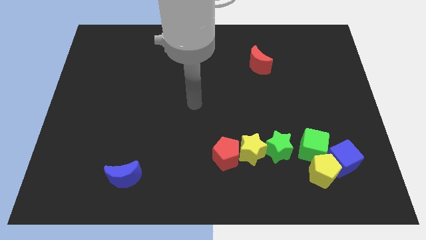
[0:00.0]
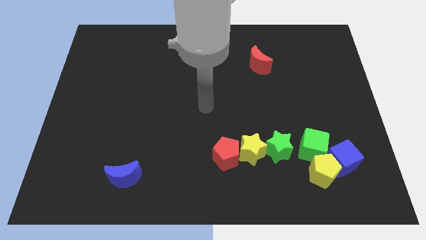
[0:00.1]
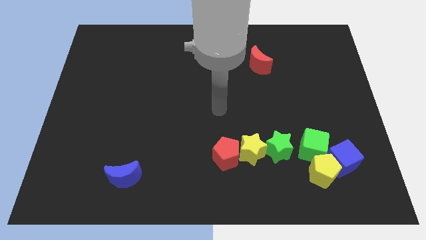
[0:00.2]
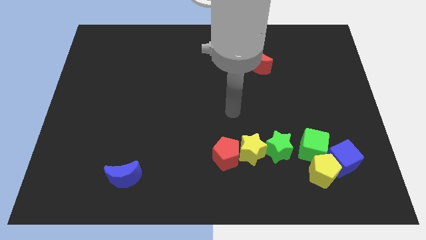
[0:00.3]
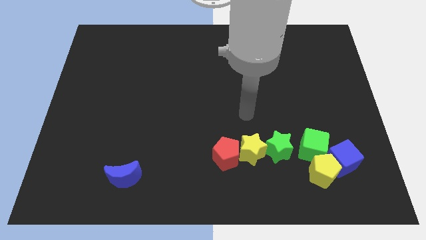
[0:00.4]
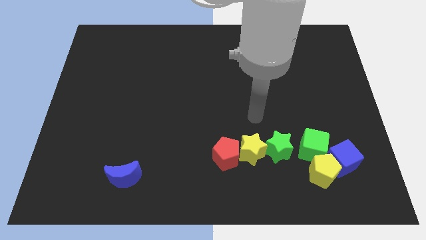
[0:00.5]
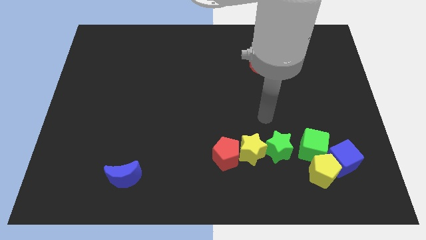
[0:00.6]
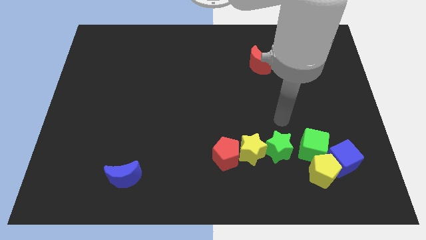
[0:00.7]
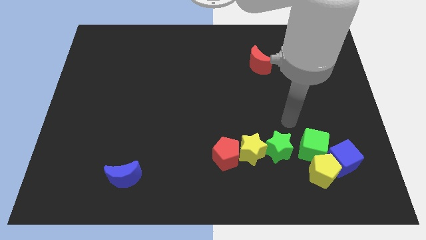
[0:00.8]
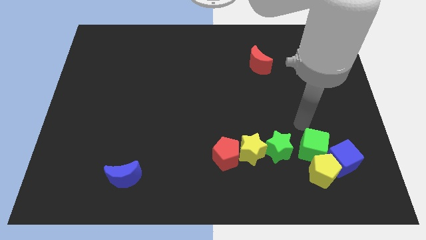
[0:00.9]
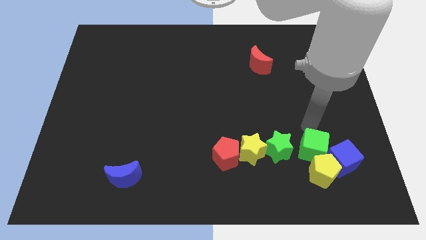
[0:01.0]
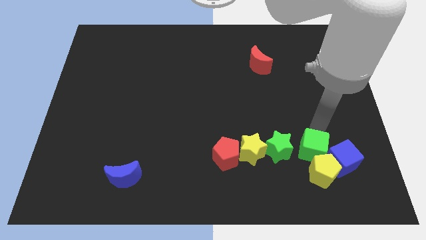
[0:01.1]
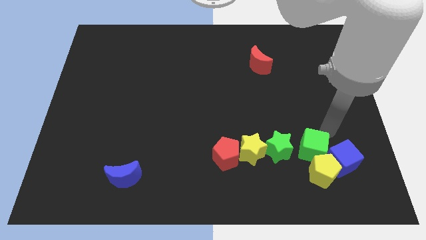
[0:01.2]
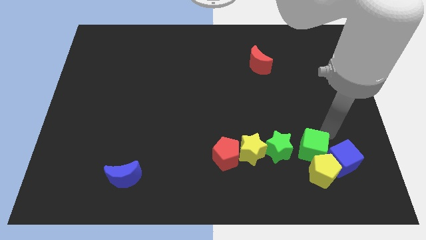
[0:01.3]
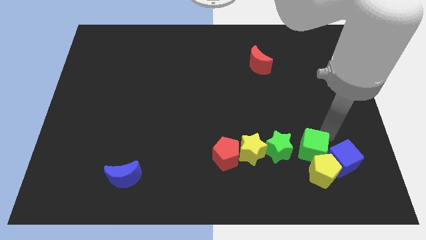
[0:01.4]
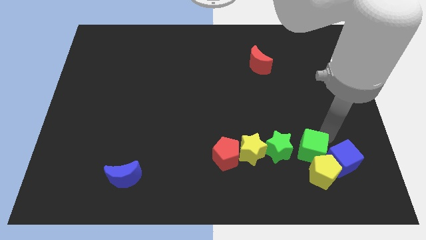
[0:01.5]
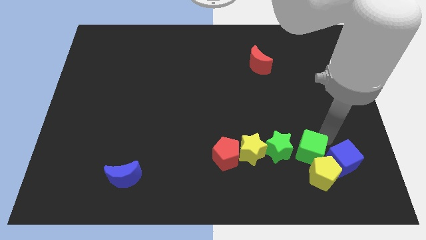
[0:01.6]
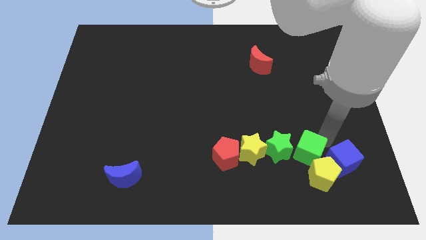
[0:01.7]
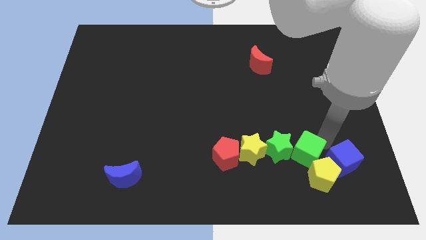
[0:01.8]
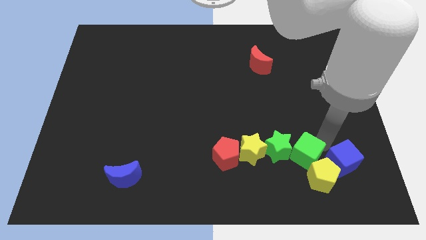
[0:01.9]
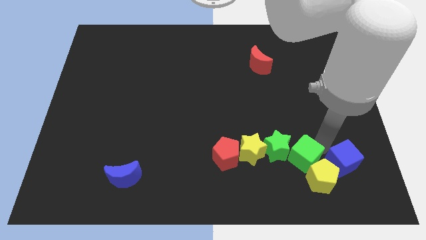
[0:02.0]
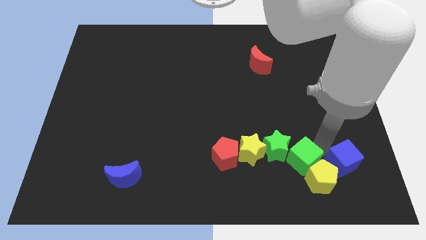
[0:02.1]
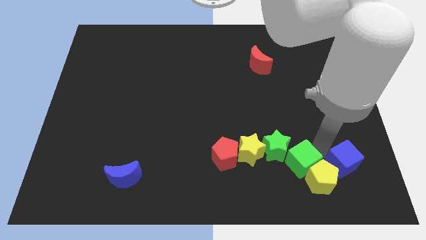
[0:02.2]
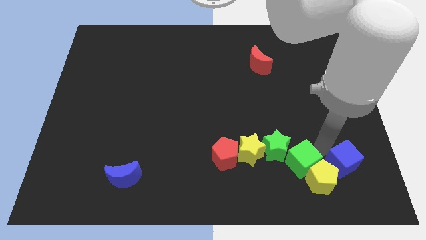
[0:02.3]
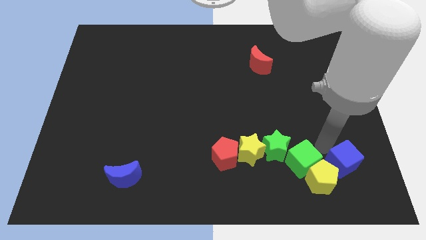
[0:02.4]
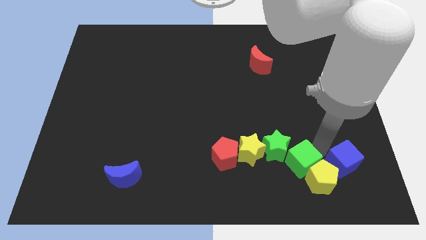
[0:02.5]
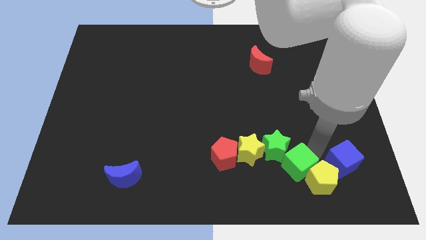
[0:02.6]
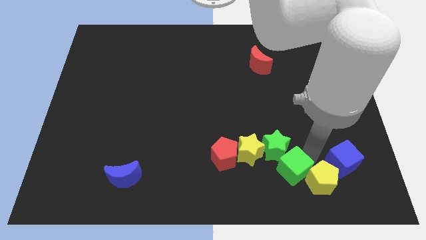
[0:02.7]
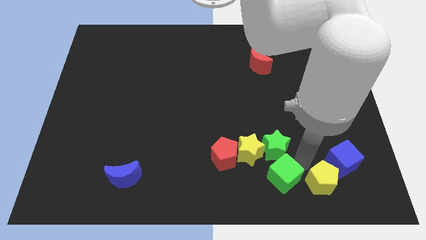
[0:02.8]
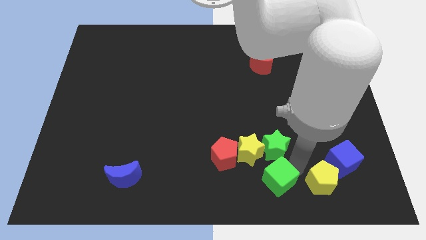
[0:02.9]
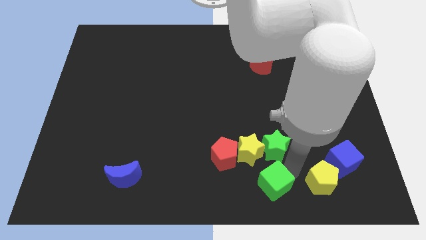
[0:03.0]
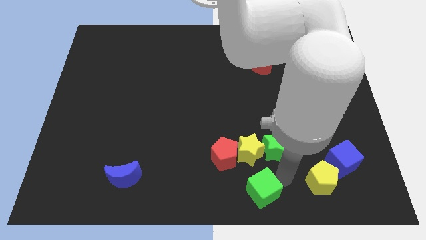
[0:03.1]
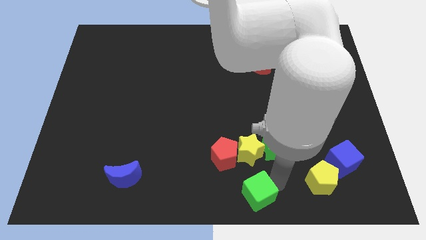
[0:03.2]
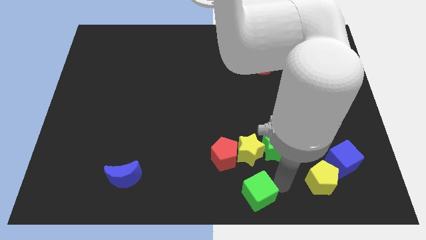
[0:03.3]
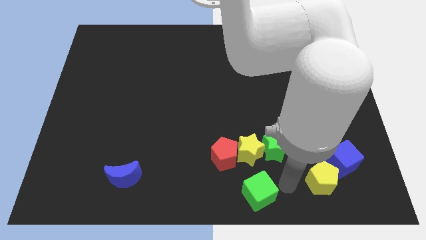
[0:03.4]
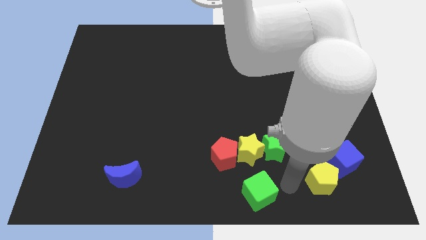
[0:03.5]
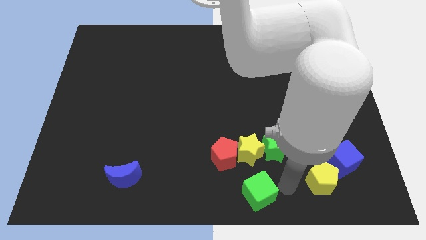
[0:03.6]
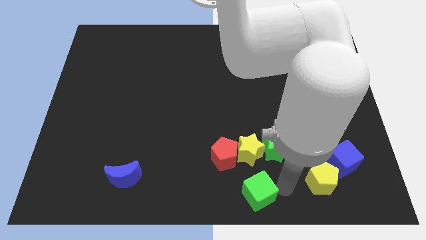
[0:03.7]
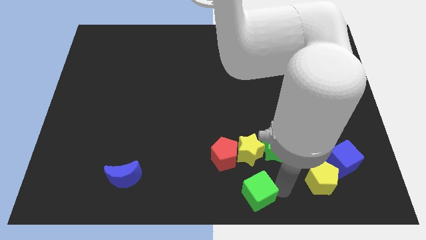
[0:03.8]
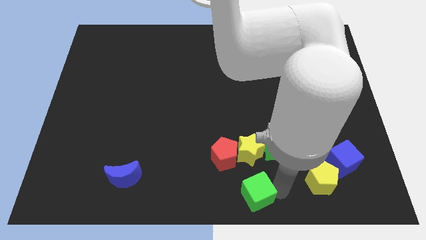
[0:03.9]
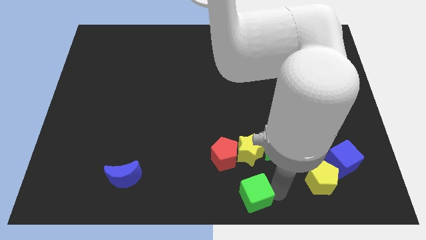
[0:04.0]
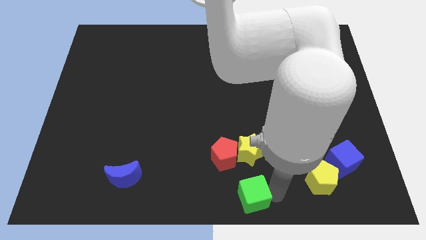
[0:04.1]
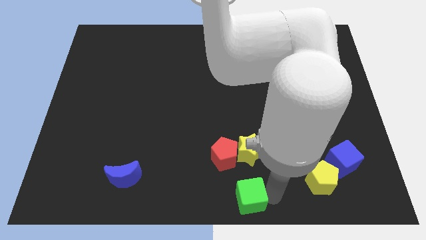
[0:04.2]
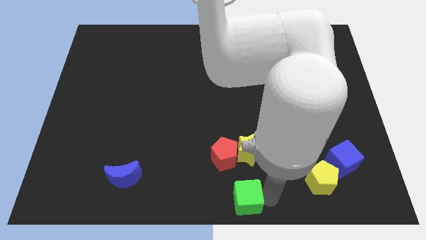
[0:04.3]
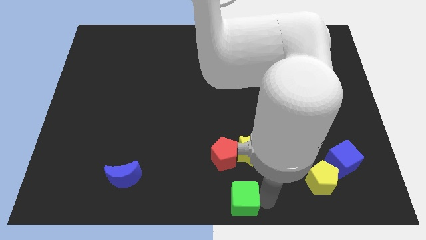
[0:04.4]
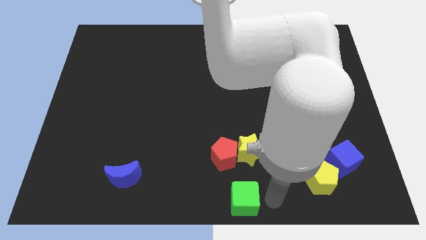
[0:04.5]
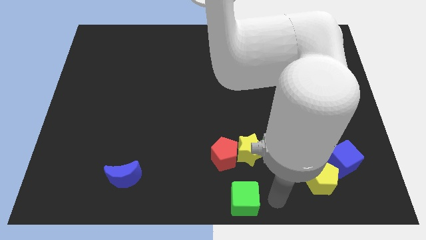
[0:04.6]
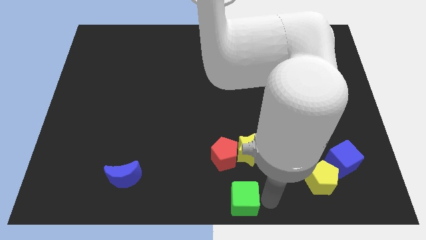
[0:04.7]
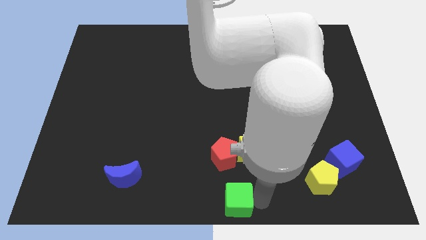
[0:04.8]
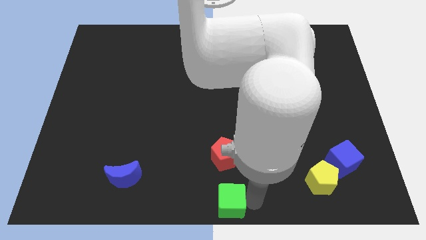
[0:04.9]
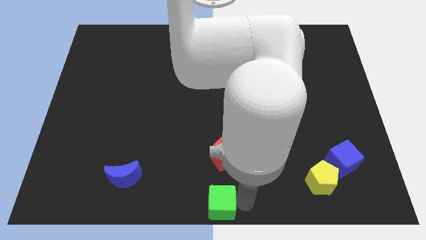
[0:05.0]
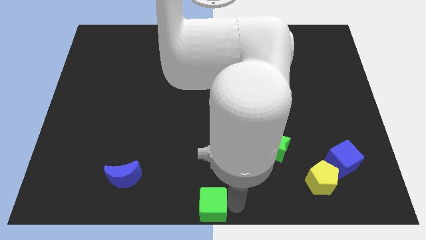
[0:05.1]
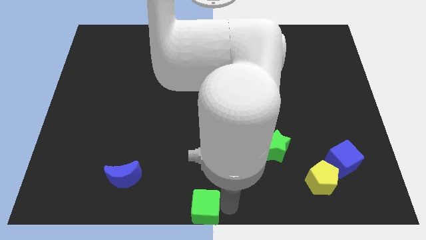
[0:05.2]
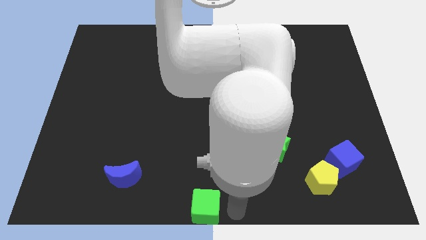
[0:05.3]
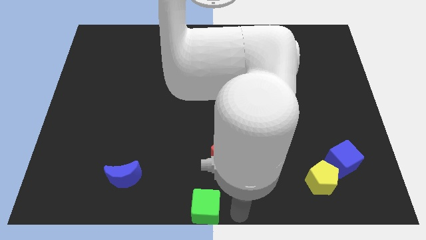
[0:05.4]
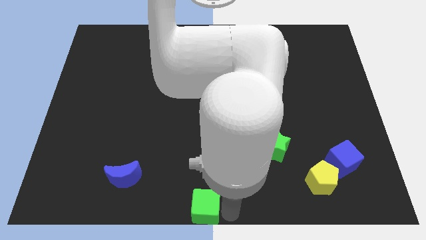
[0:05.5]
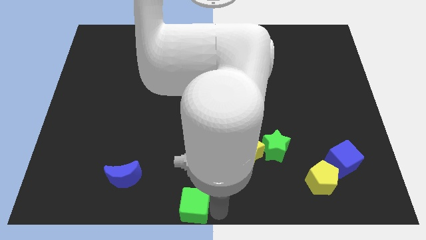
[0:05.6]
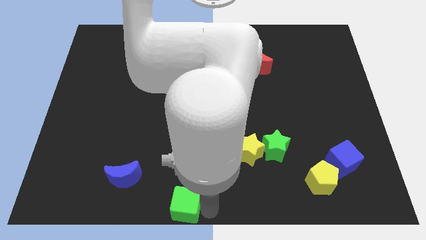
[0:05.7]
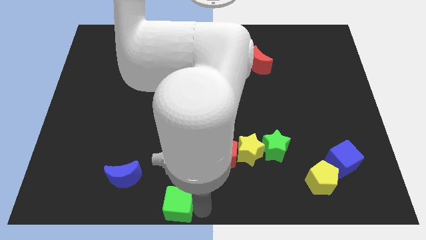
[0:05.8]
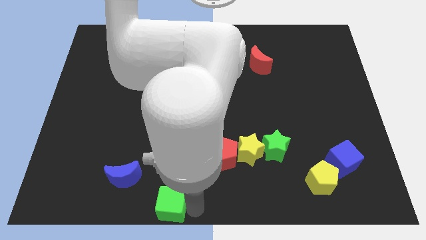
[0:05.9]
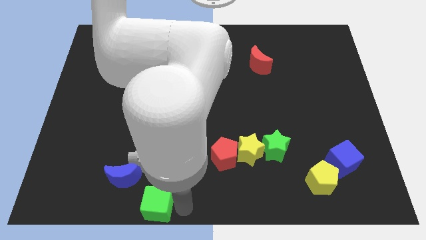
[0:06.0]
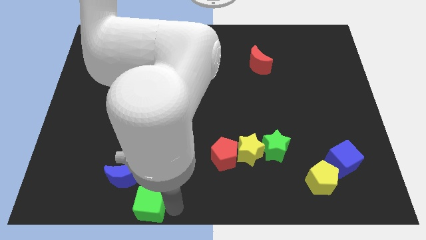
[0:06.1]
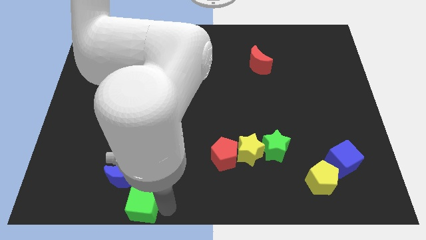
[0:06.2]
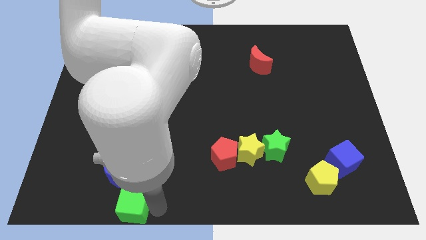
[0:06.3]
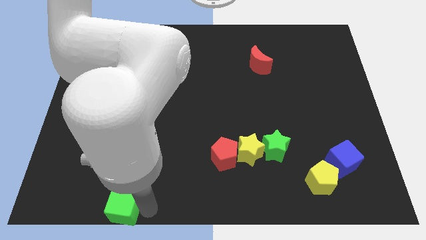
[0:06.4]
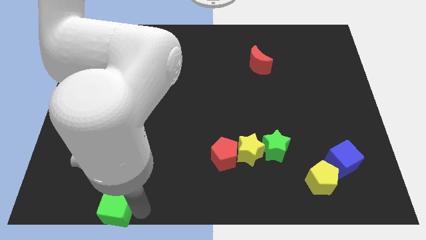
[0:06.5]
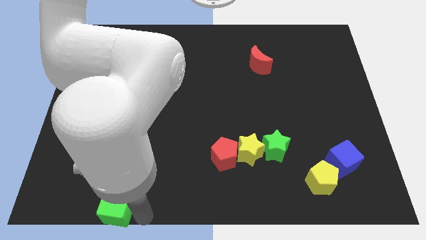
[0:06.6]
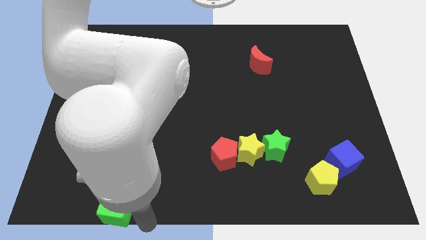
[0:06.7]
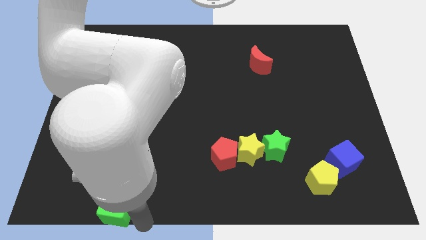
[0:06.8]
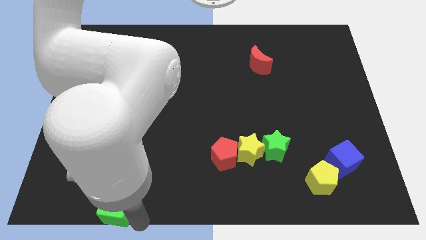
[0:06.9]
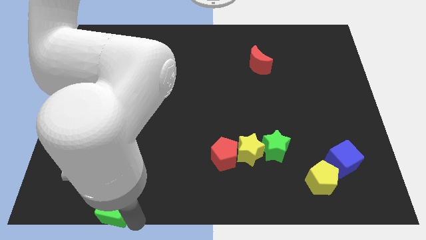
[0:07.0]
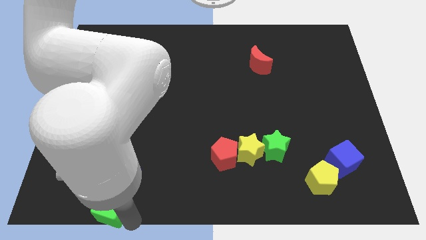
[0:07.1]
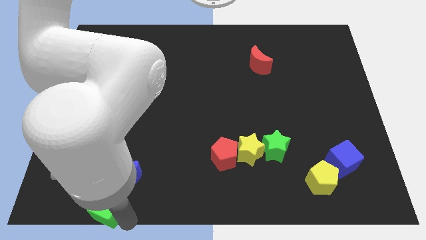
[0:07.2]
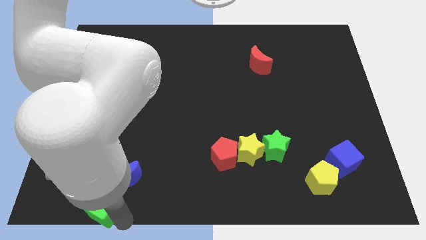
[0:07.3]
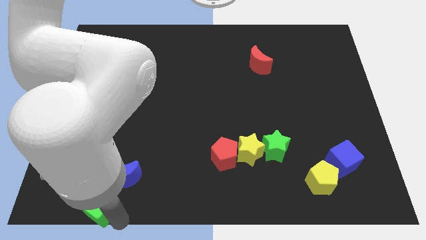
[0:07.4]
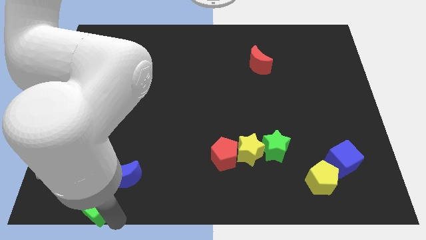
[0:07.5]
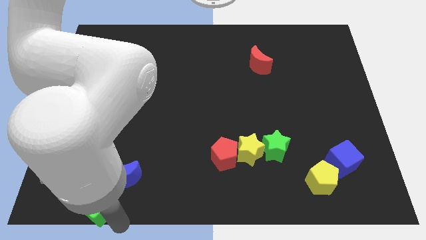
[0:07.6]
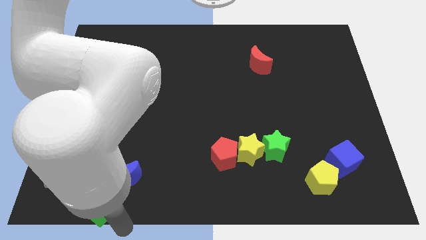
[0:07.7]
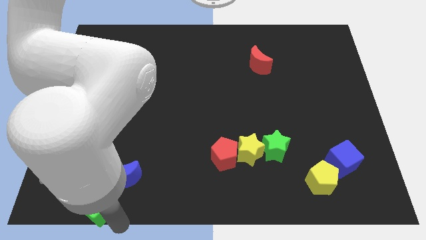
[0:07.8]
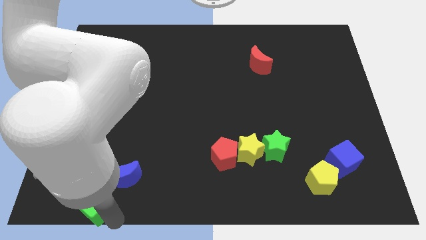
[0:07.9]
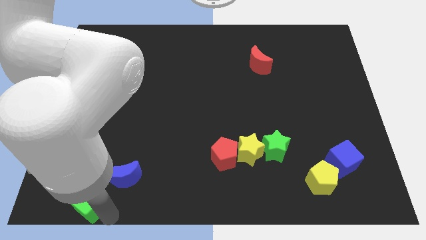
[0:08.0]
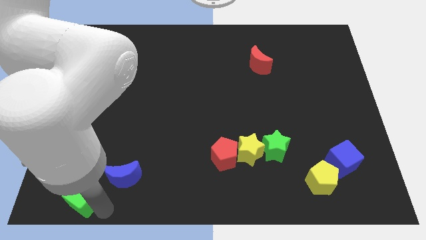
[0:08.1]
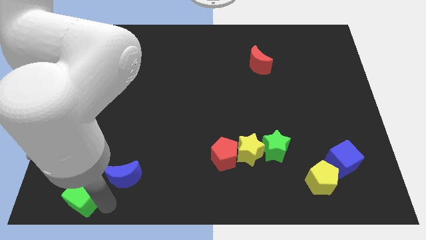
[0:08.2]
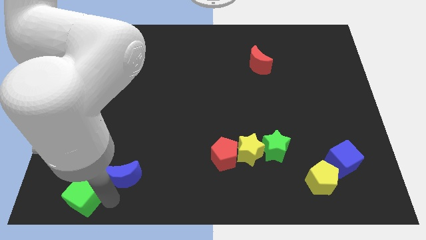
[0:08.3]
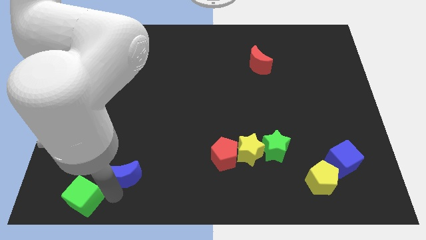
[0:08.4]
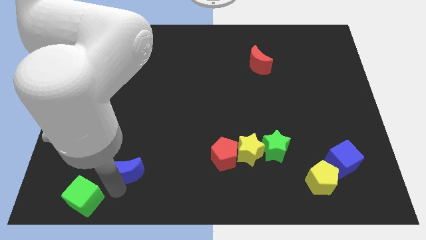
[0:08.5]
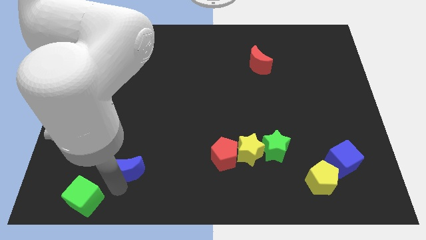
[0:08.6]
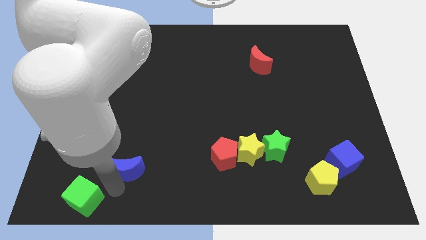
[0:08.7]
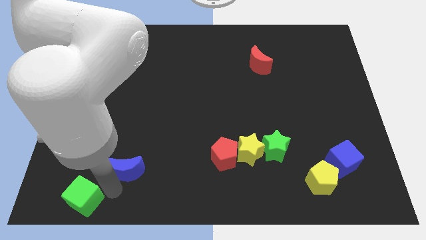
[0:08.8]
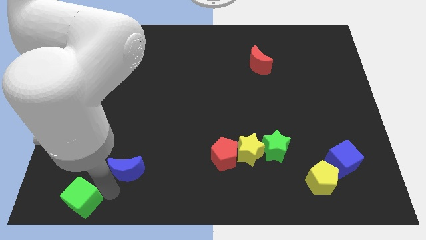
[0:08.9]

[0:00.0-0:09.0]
move the green cube to the bottom left
